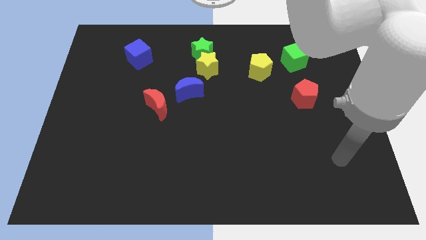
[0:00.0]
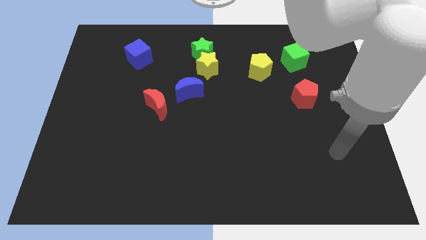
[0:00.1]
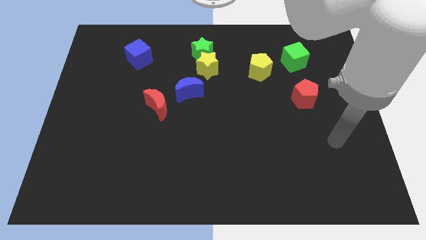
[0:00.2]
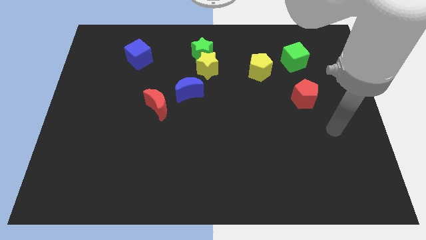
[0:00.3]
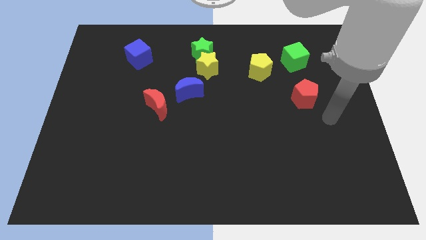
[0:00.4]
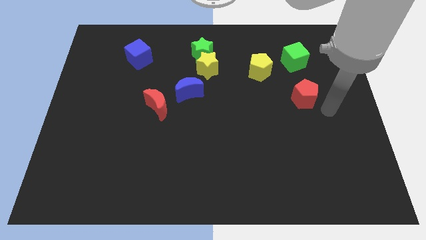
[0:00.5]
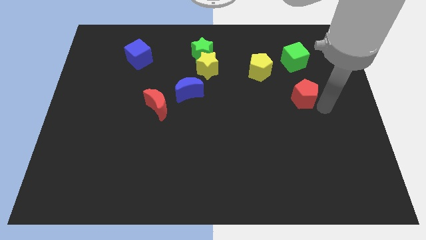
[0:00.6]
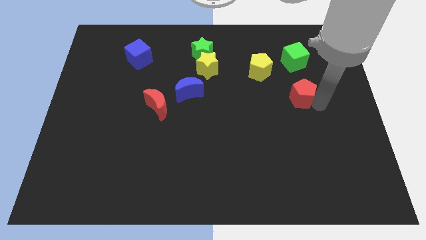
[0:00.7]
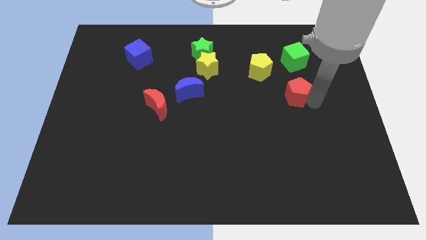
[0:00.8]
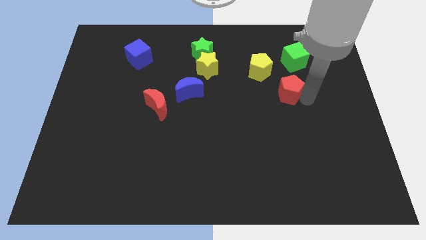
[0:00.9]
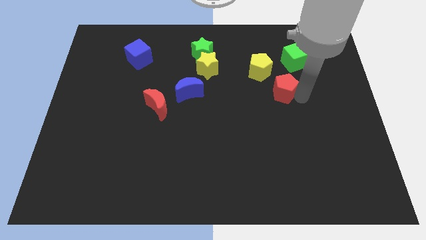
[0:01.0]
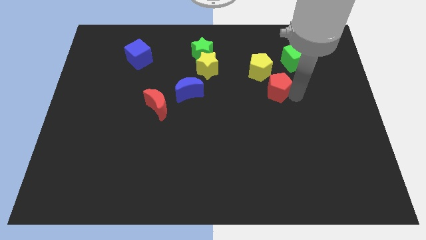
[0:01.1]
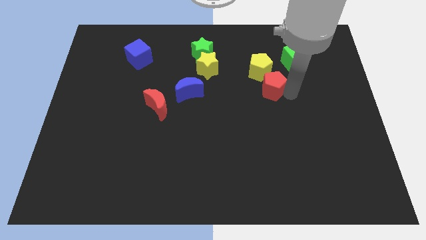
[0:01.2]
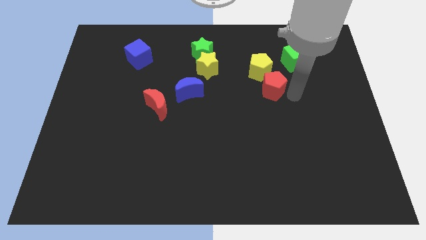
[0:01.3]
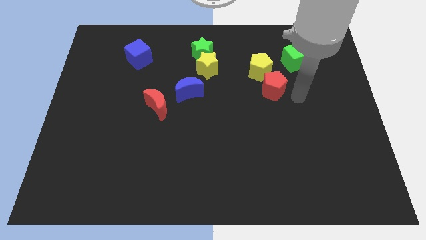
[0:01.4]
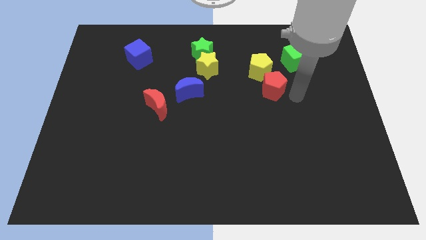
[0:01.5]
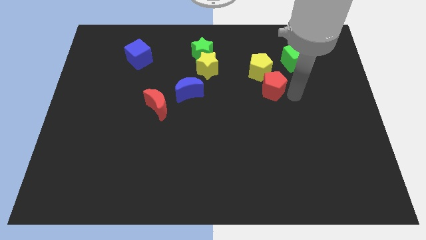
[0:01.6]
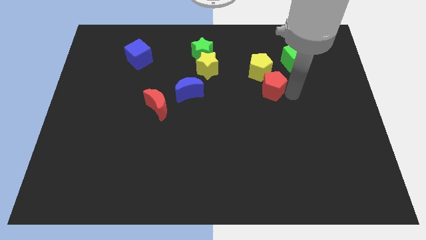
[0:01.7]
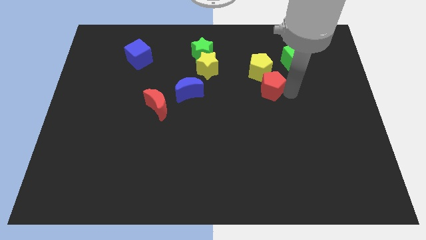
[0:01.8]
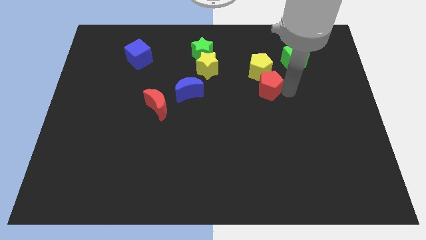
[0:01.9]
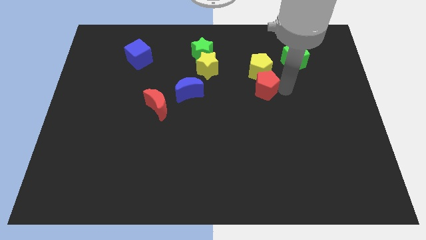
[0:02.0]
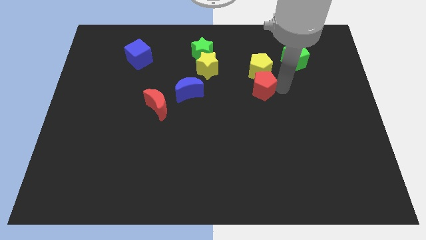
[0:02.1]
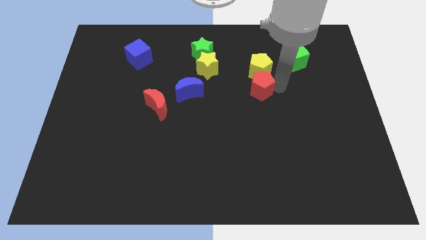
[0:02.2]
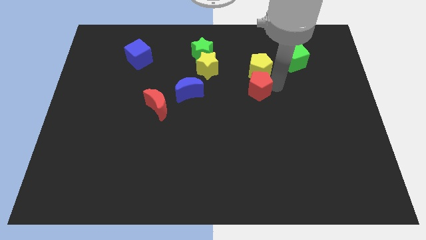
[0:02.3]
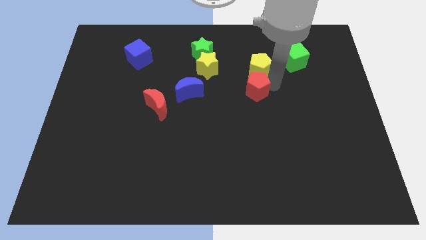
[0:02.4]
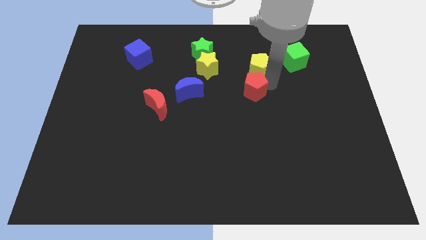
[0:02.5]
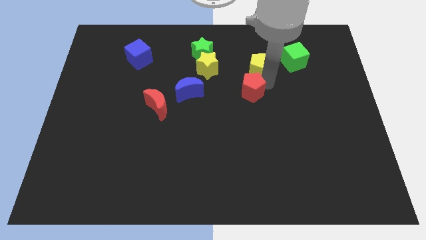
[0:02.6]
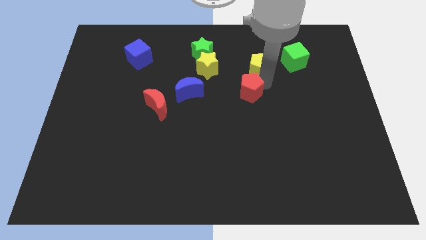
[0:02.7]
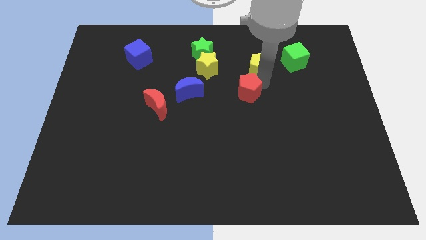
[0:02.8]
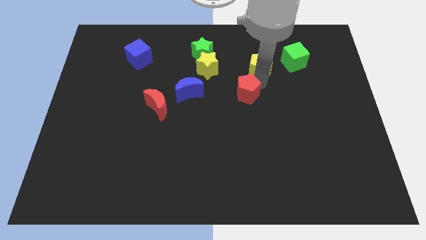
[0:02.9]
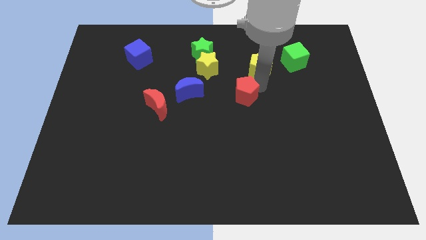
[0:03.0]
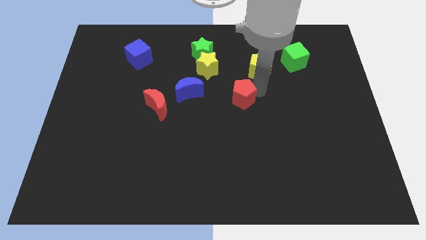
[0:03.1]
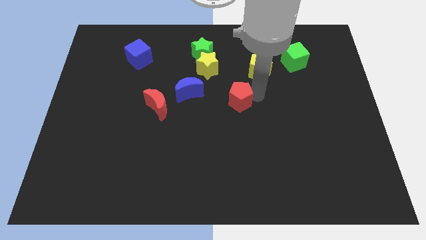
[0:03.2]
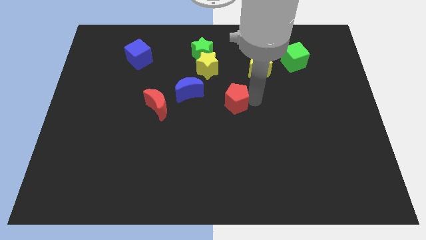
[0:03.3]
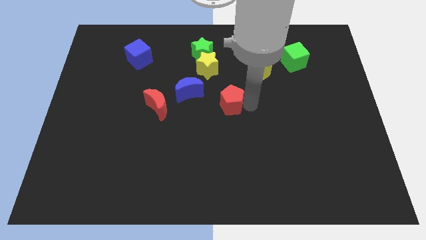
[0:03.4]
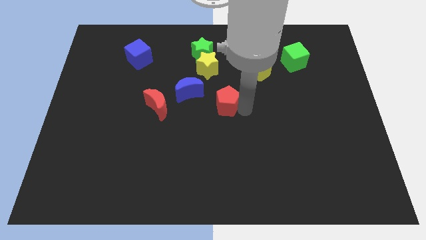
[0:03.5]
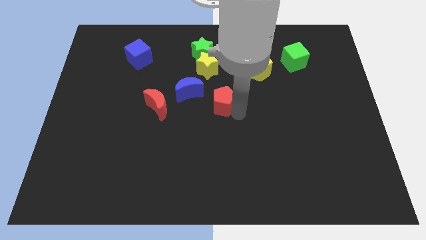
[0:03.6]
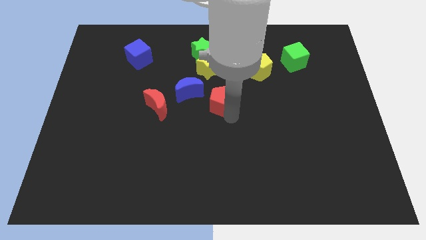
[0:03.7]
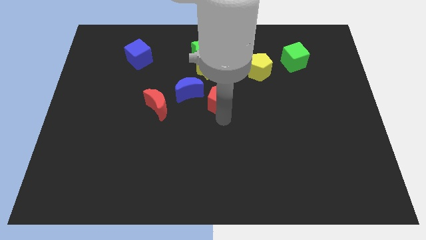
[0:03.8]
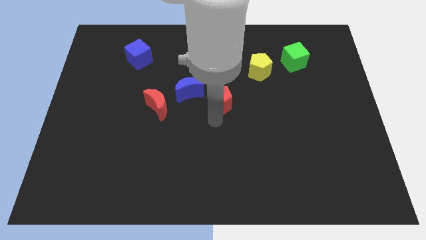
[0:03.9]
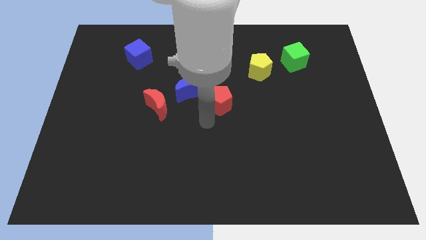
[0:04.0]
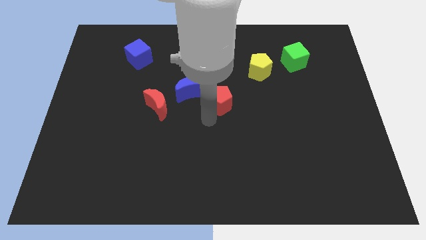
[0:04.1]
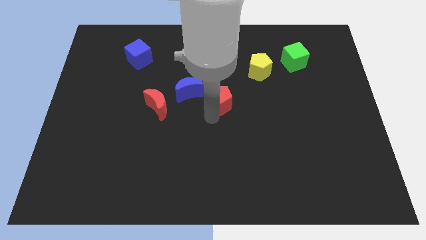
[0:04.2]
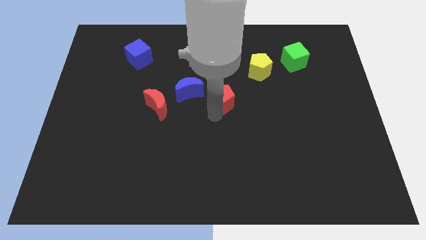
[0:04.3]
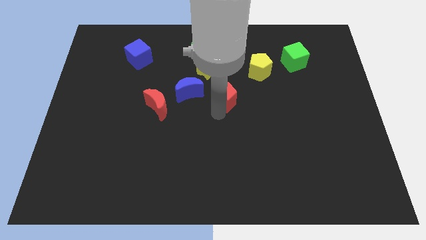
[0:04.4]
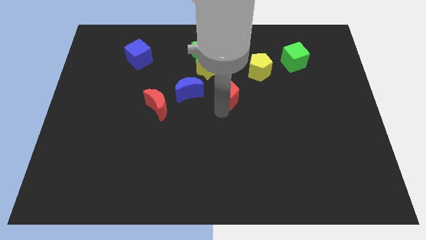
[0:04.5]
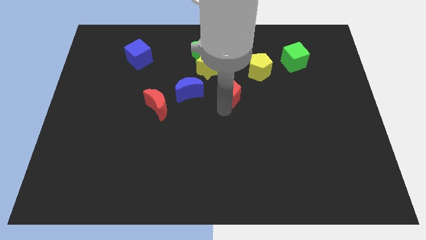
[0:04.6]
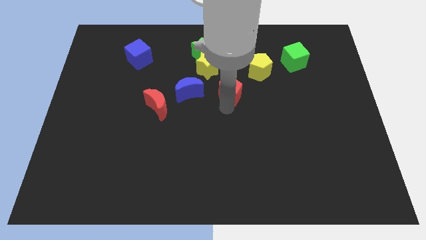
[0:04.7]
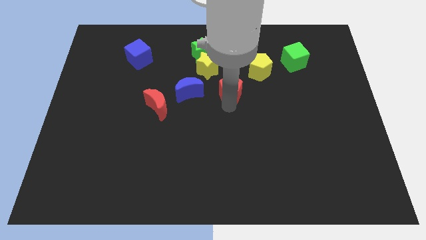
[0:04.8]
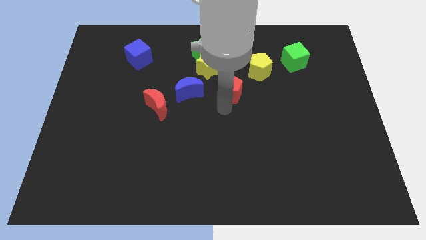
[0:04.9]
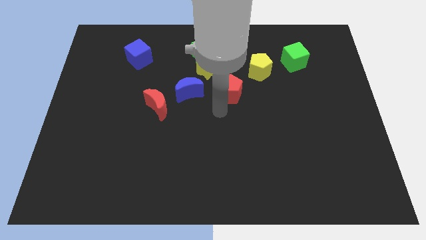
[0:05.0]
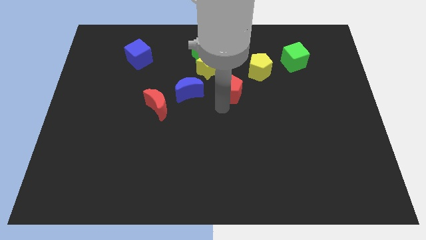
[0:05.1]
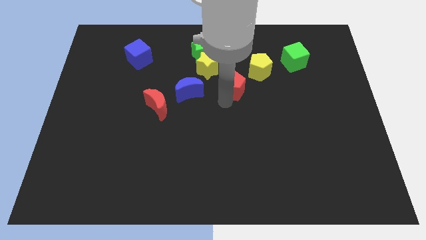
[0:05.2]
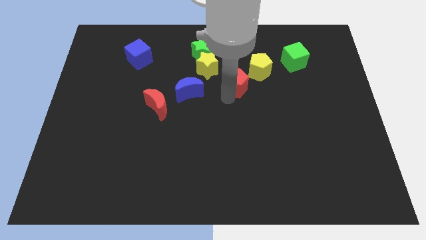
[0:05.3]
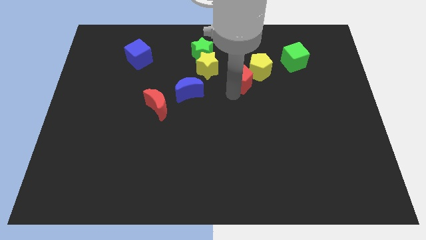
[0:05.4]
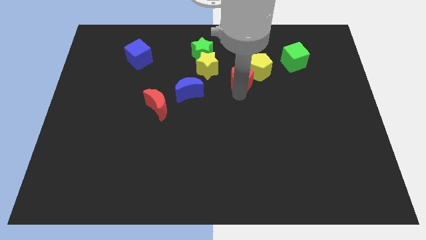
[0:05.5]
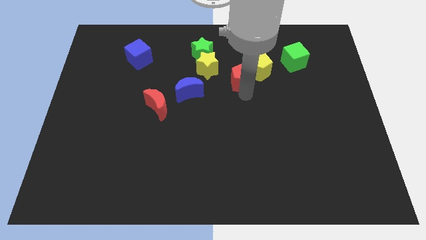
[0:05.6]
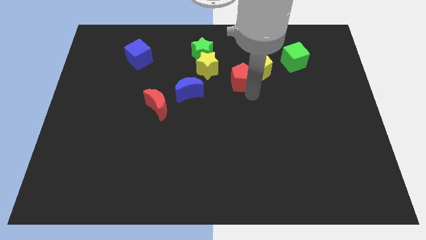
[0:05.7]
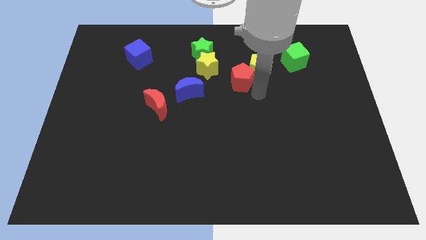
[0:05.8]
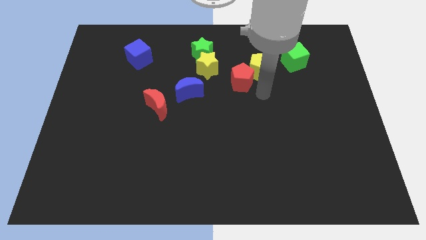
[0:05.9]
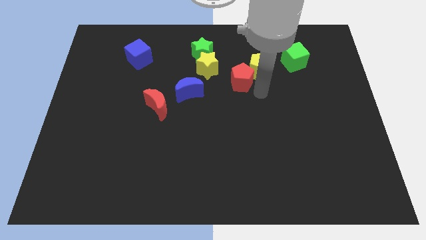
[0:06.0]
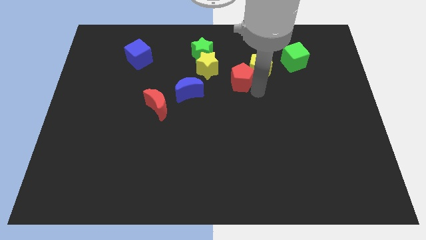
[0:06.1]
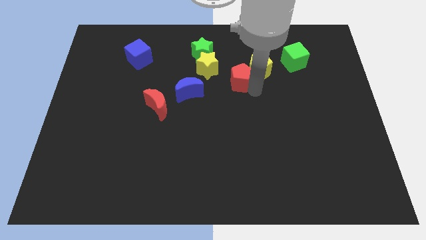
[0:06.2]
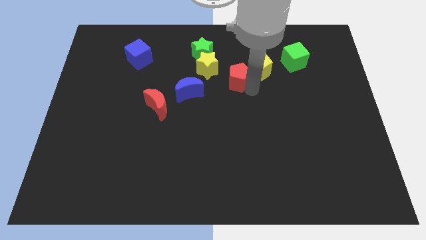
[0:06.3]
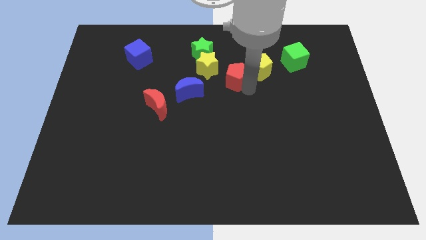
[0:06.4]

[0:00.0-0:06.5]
move the red pentagon to the bottom right side of the green star

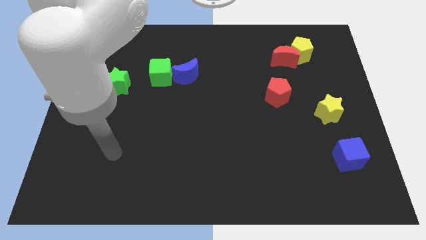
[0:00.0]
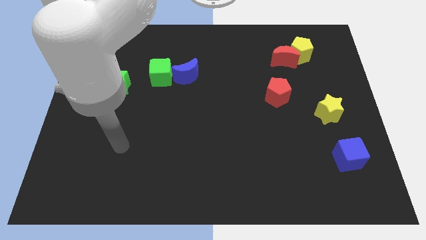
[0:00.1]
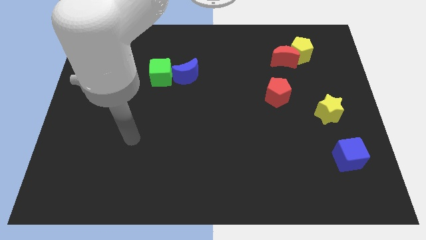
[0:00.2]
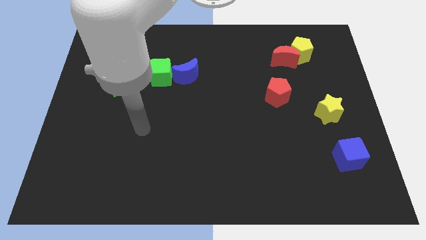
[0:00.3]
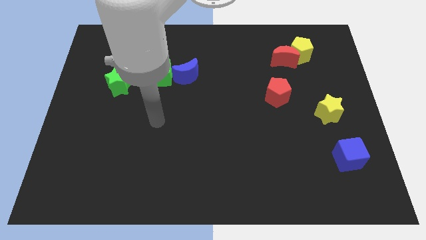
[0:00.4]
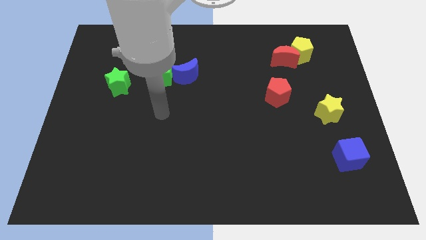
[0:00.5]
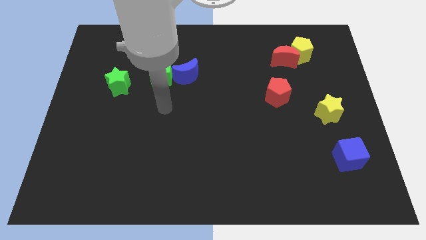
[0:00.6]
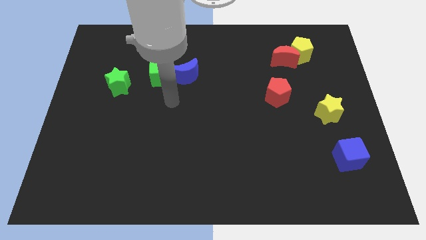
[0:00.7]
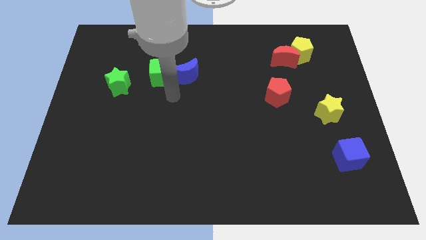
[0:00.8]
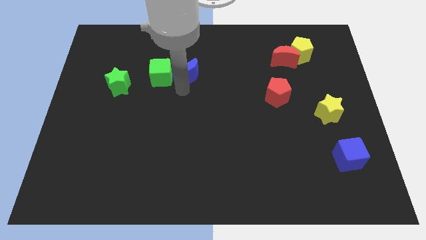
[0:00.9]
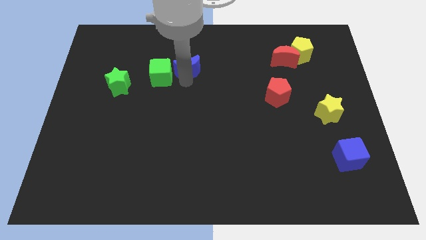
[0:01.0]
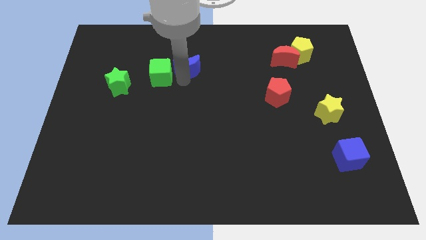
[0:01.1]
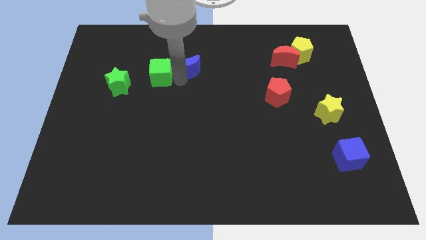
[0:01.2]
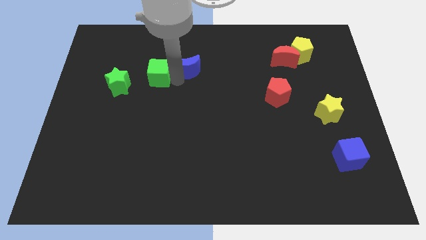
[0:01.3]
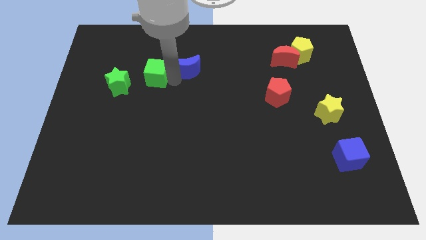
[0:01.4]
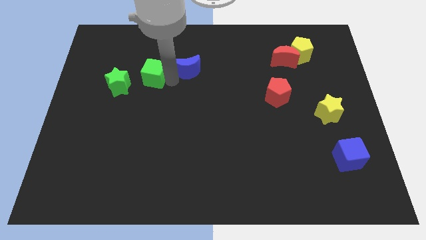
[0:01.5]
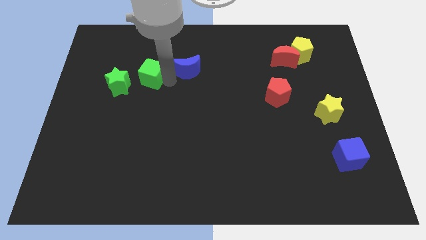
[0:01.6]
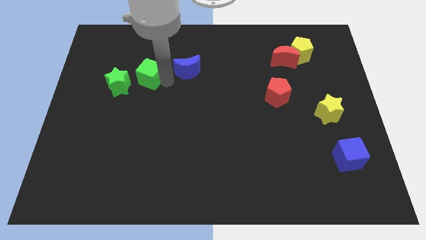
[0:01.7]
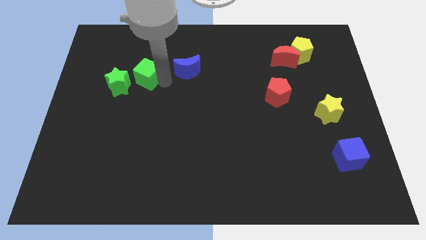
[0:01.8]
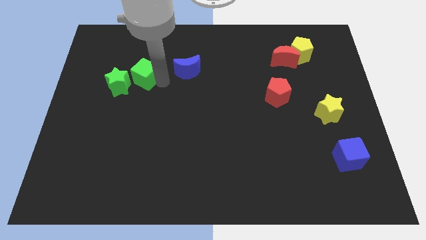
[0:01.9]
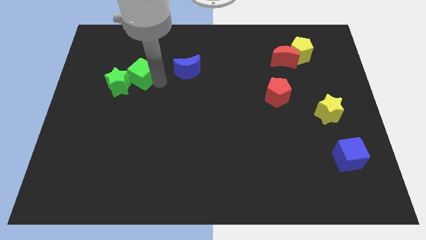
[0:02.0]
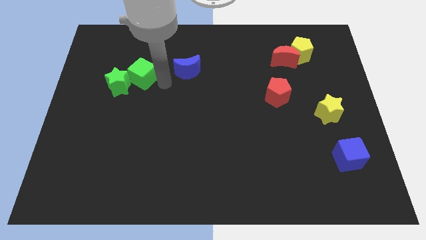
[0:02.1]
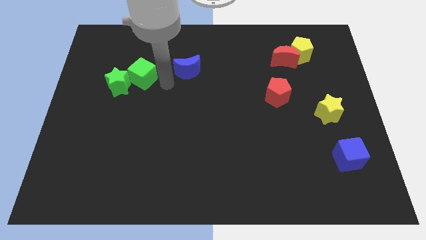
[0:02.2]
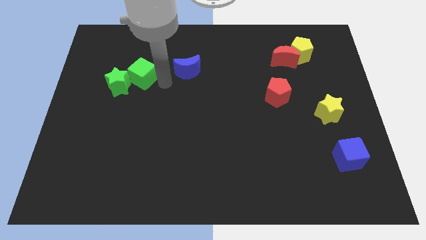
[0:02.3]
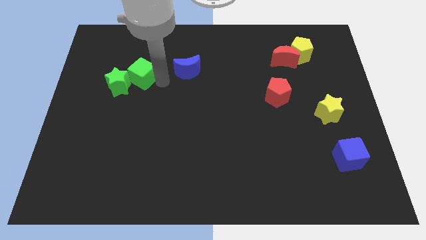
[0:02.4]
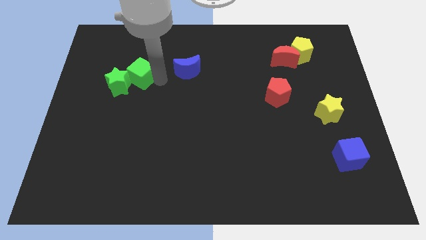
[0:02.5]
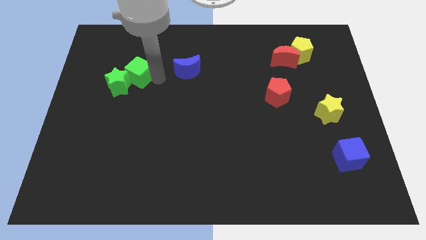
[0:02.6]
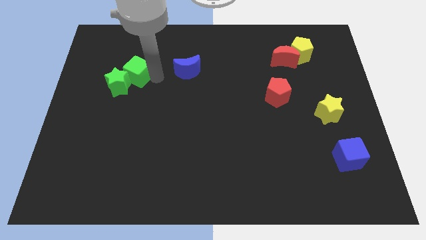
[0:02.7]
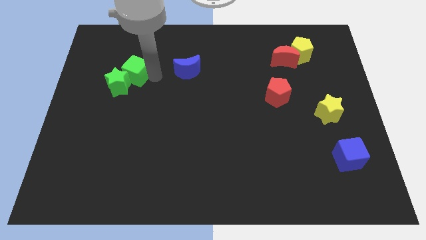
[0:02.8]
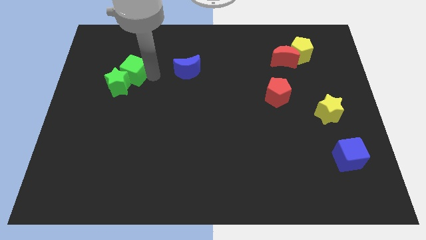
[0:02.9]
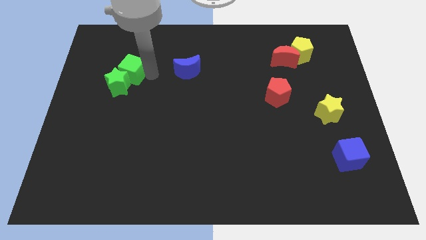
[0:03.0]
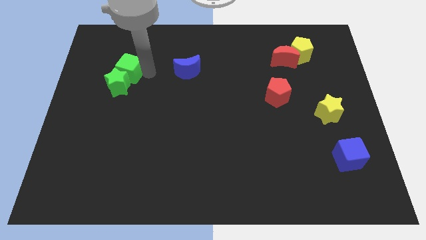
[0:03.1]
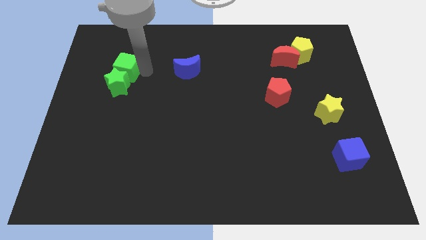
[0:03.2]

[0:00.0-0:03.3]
move the green cube to the top left side of the green star
